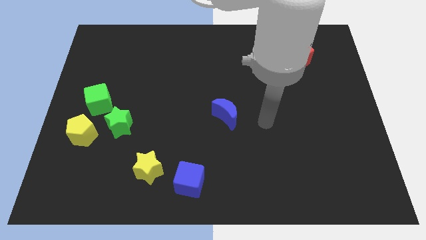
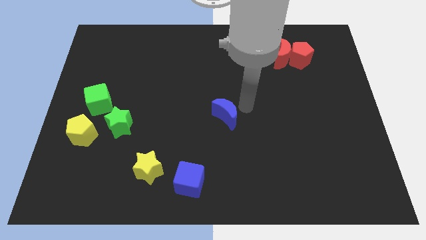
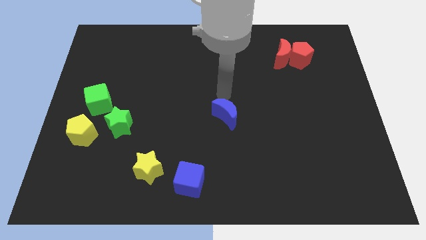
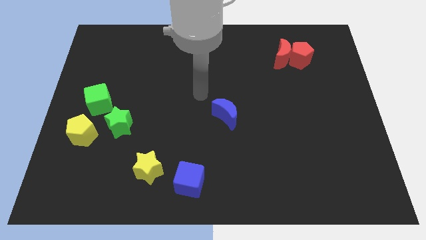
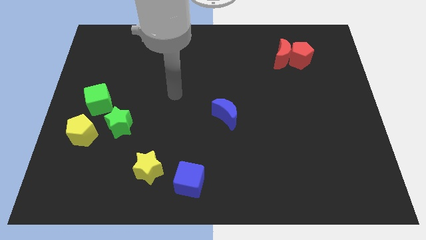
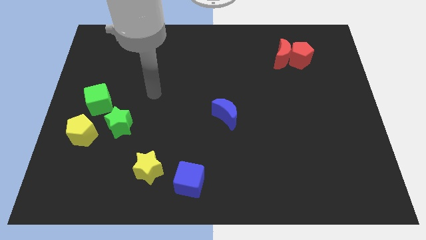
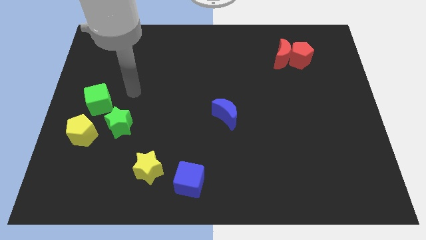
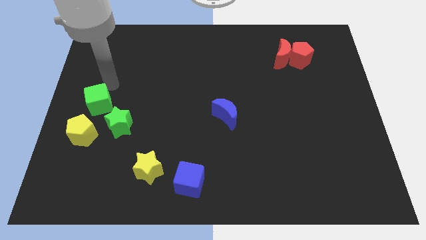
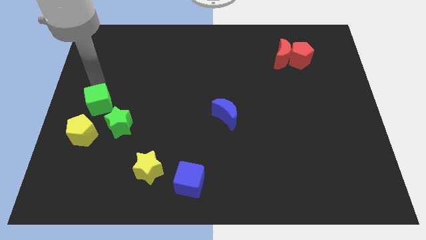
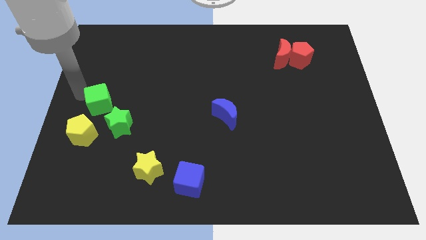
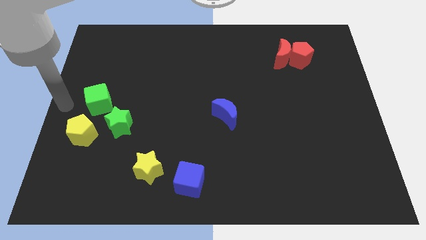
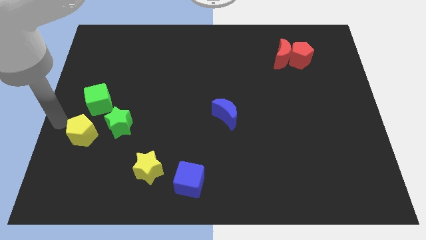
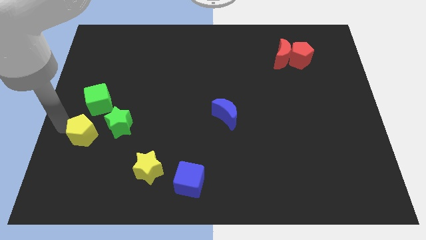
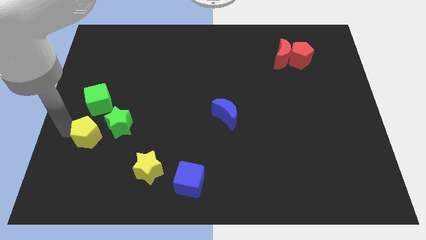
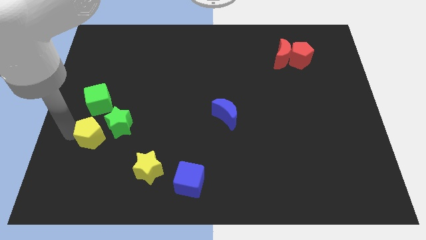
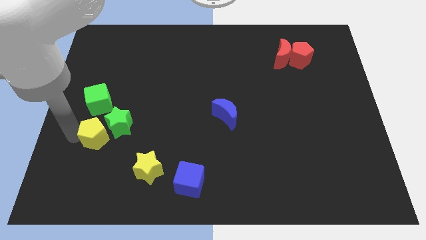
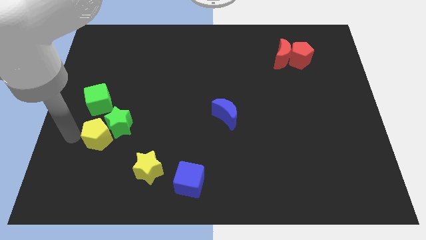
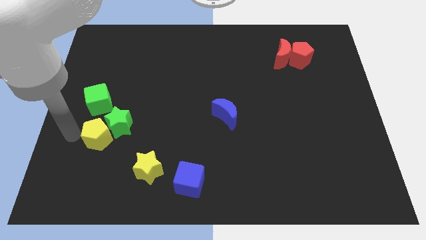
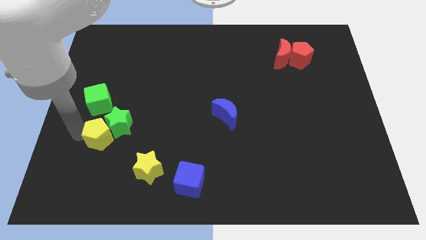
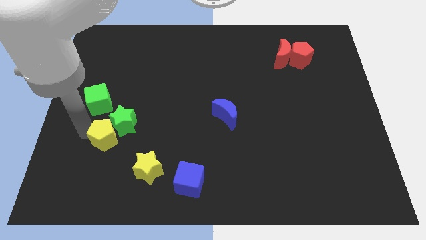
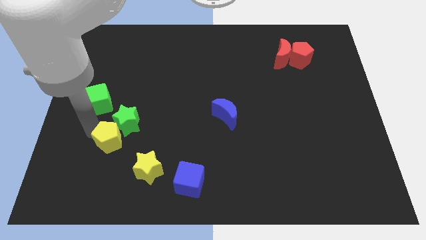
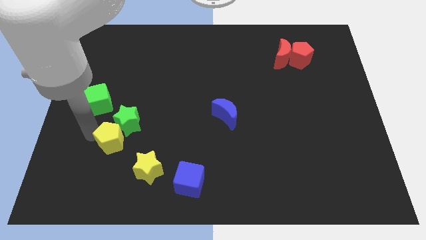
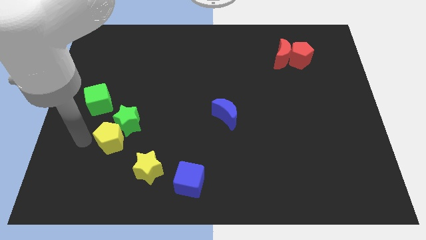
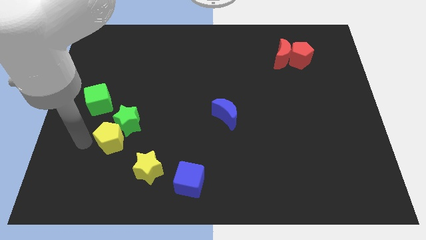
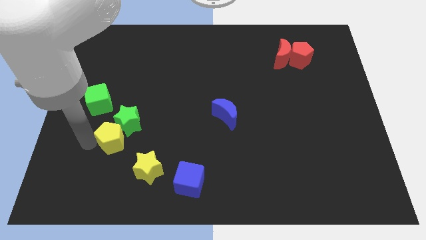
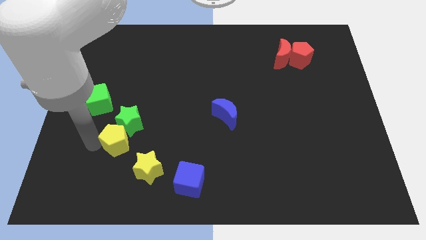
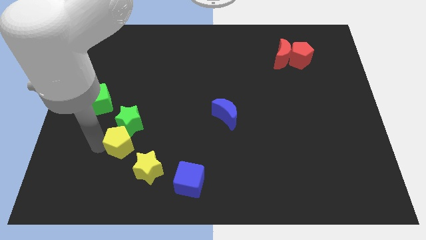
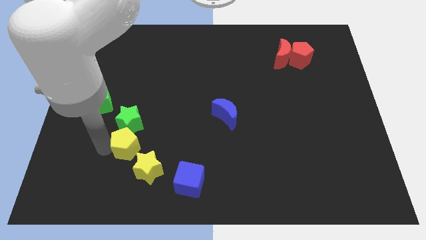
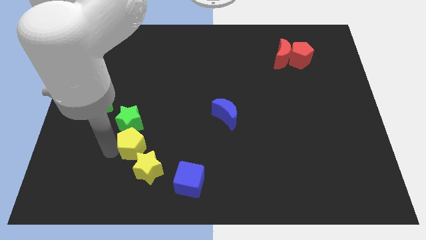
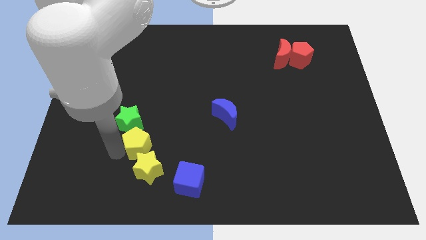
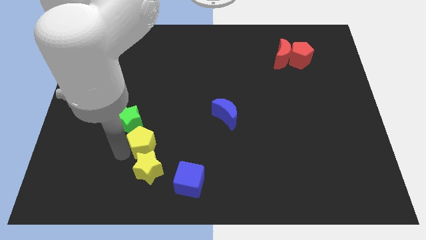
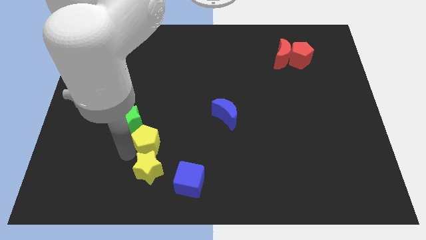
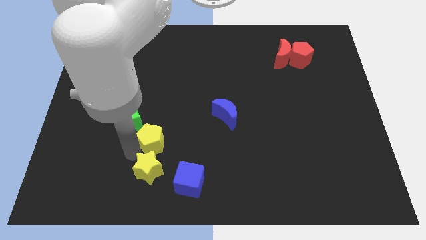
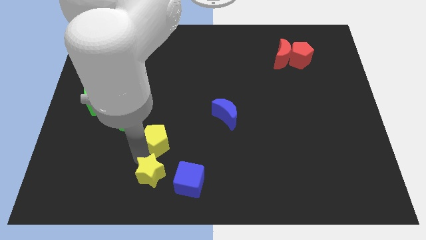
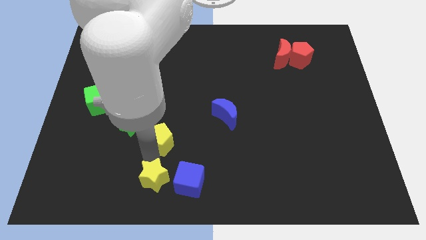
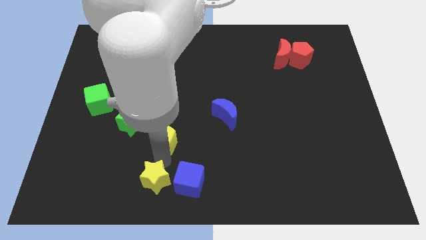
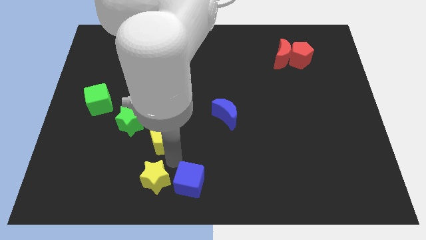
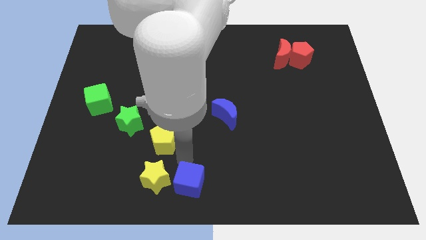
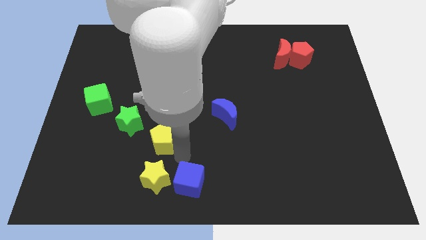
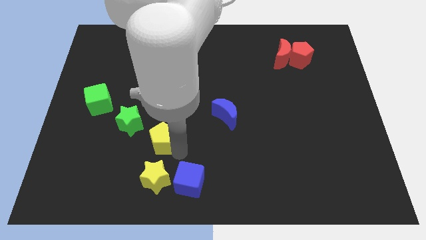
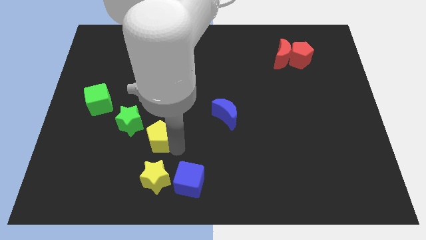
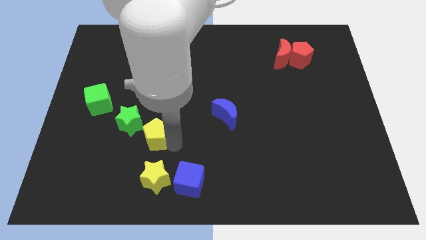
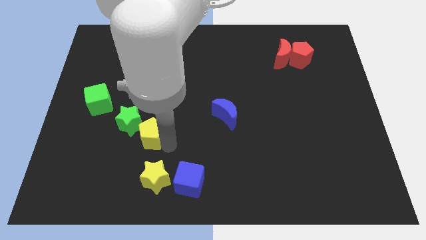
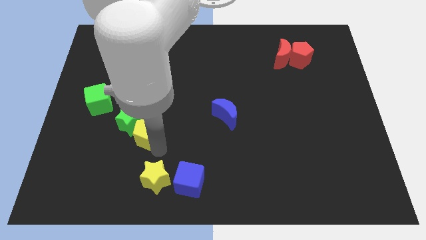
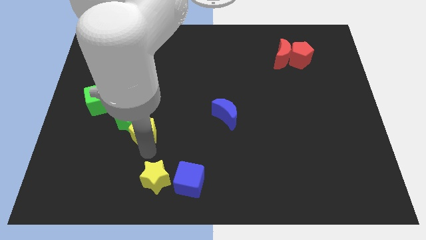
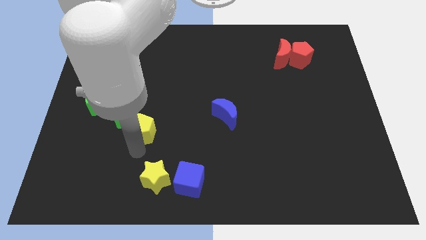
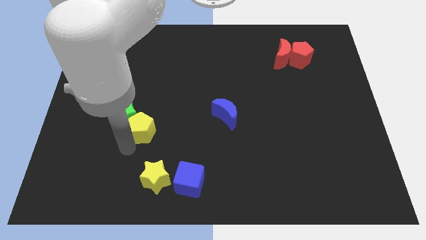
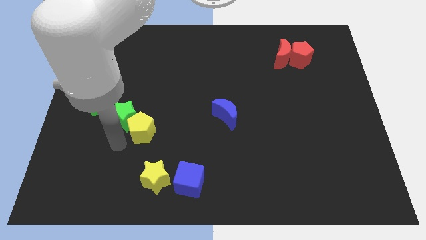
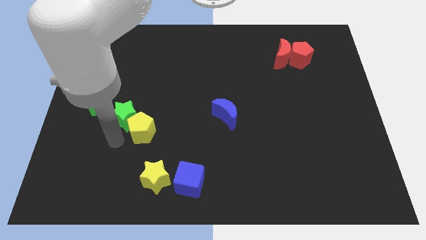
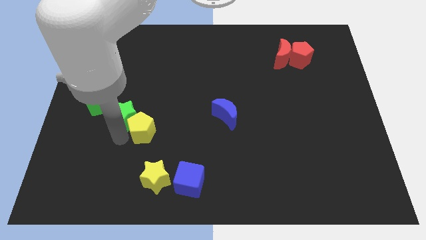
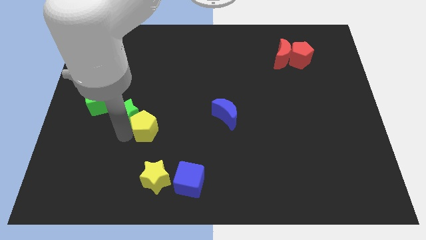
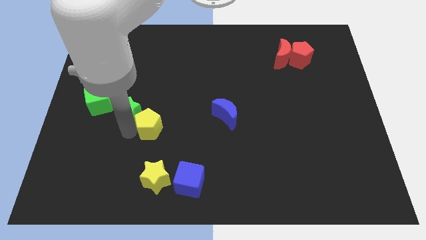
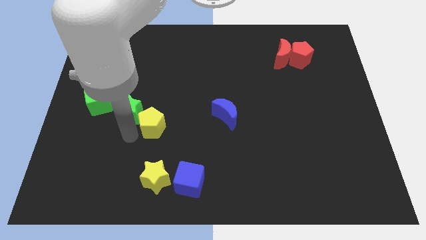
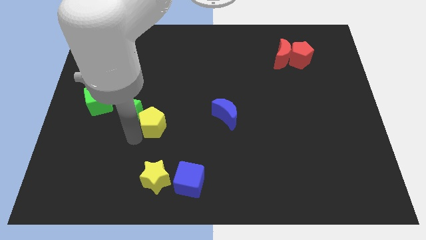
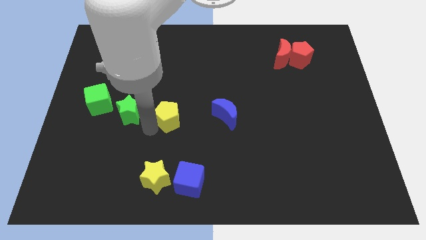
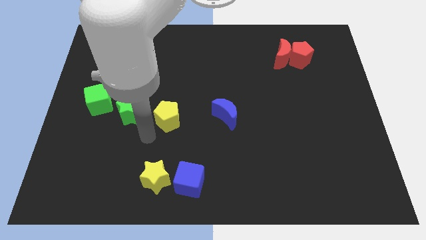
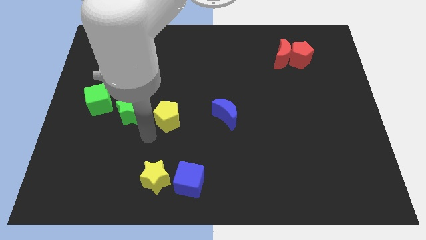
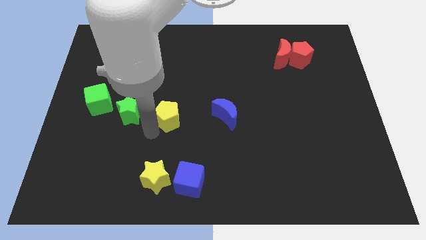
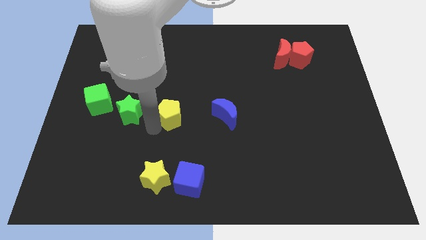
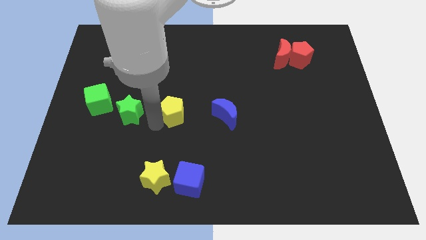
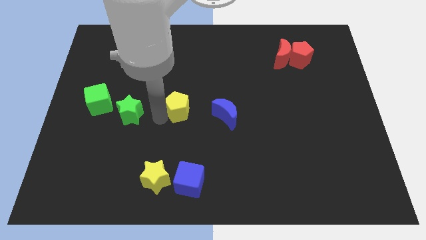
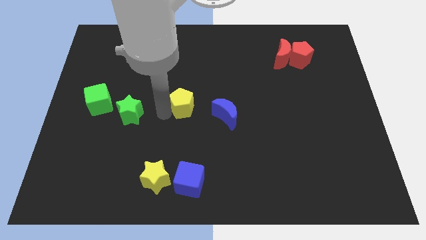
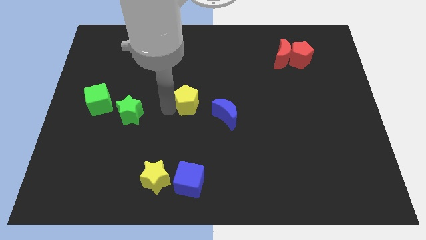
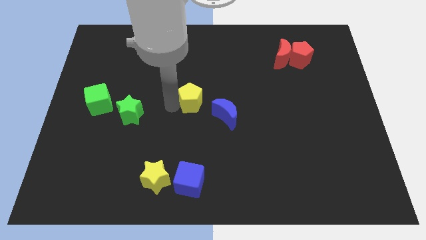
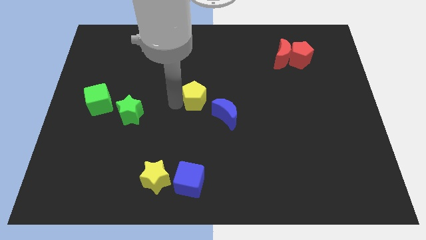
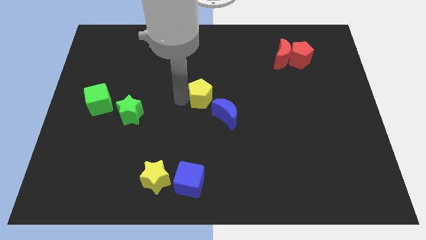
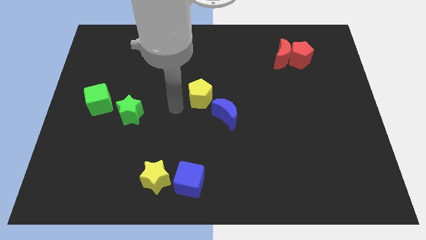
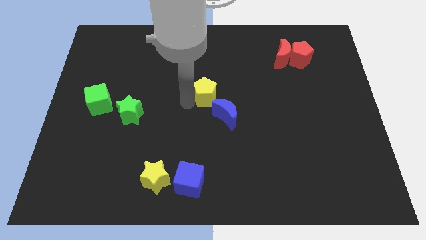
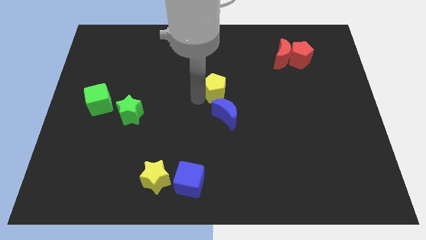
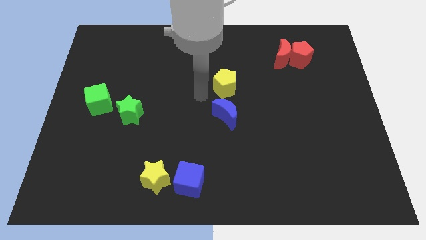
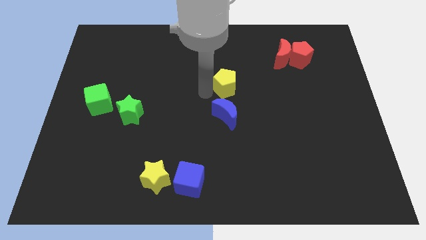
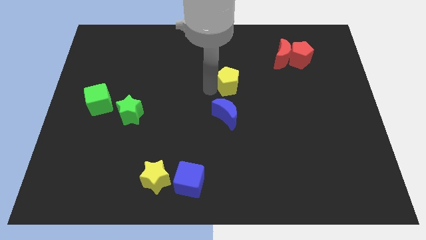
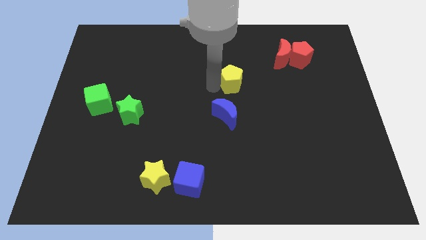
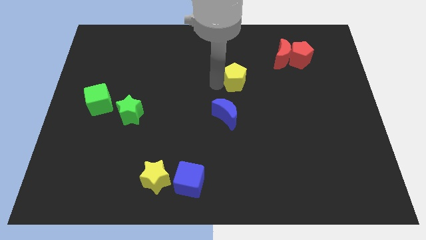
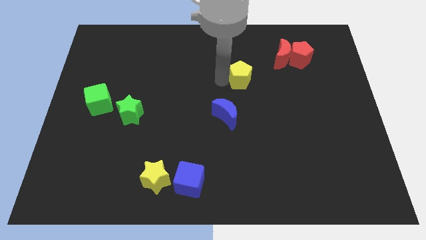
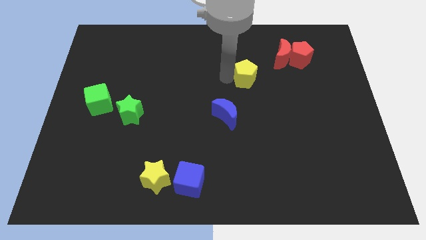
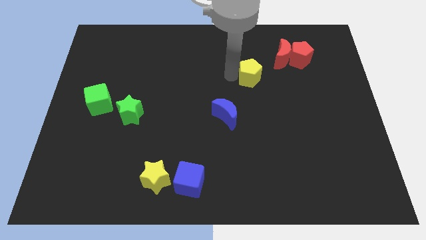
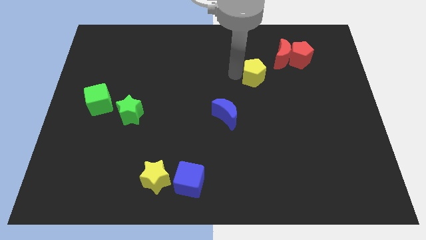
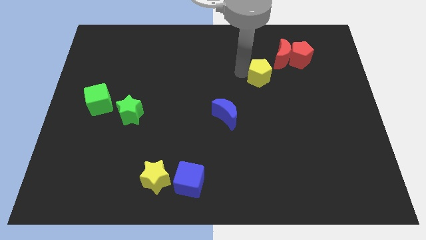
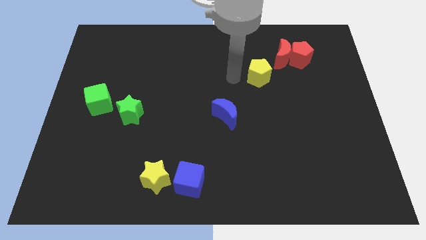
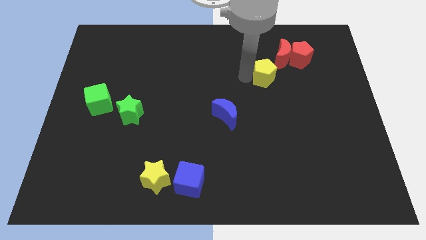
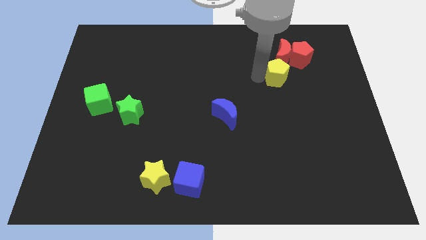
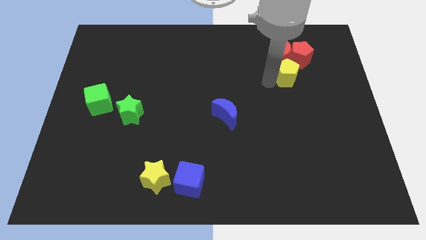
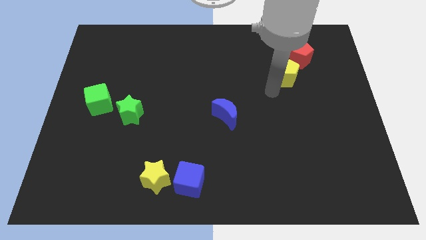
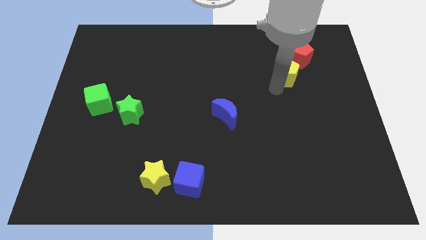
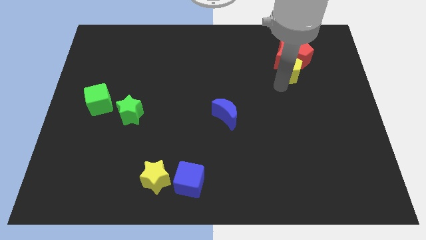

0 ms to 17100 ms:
push the yellow pentagon towards the red pentagon
